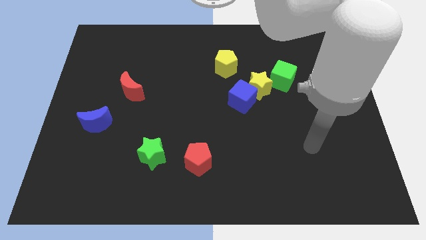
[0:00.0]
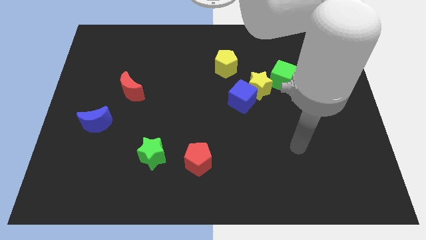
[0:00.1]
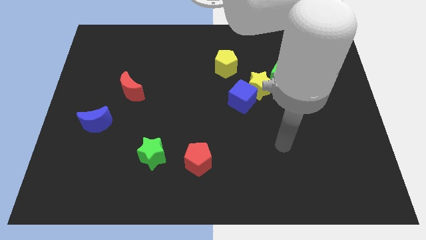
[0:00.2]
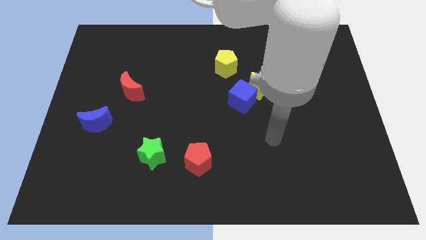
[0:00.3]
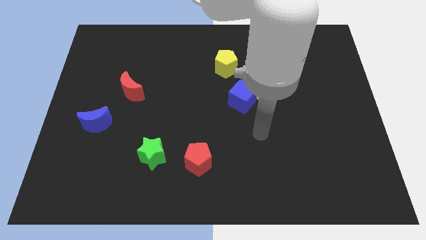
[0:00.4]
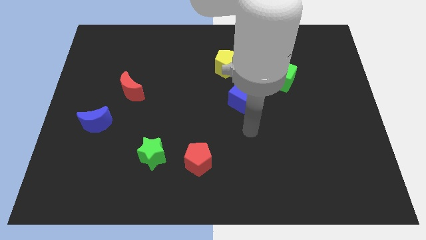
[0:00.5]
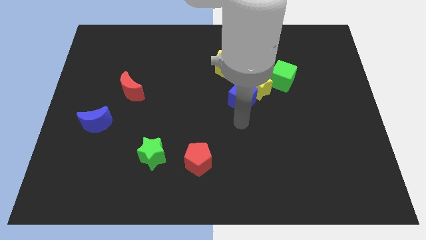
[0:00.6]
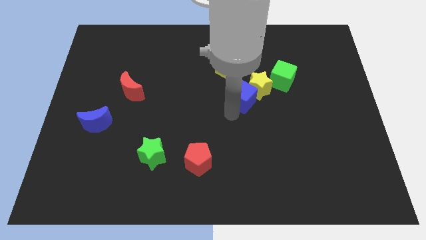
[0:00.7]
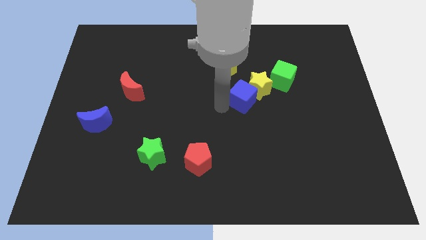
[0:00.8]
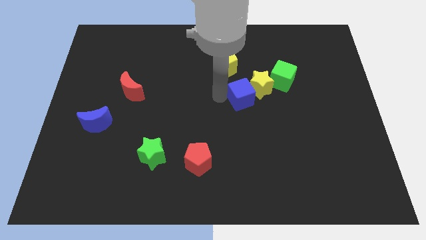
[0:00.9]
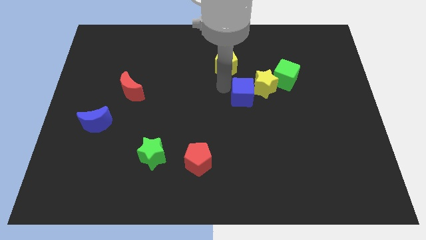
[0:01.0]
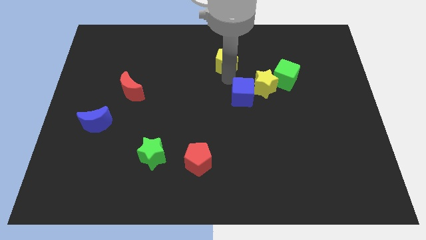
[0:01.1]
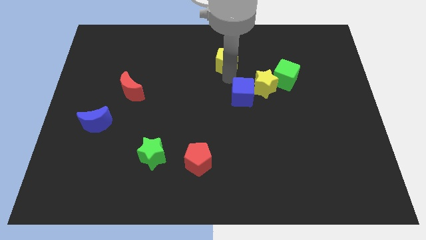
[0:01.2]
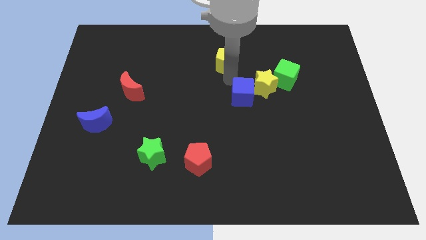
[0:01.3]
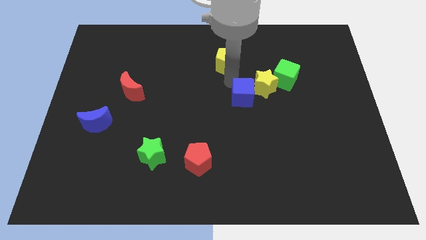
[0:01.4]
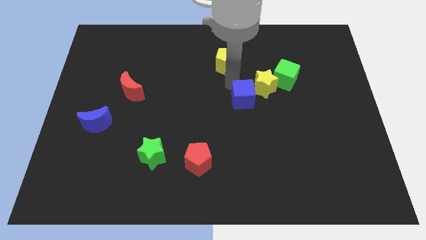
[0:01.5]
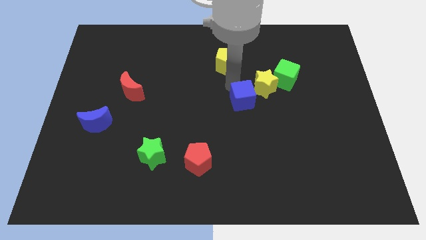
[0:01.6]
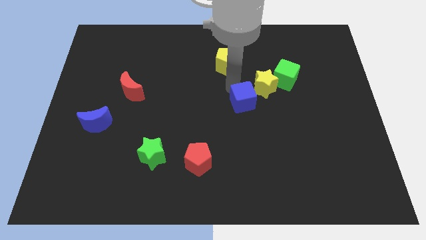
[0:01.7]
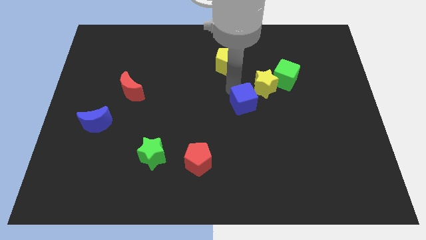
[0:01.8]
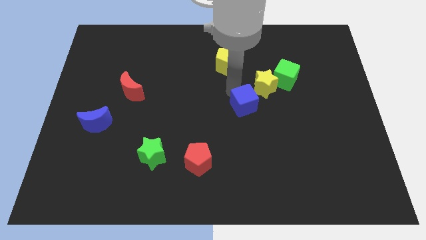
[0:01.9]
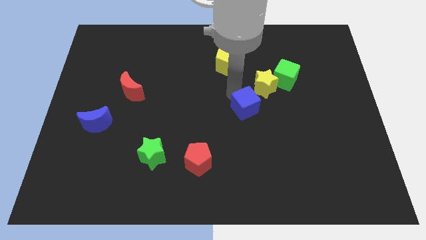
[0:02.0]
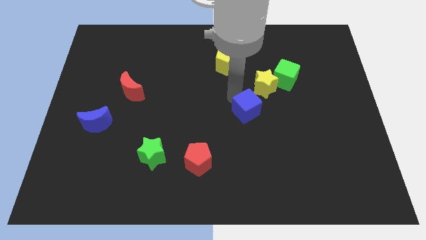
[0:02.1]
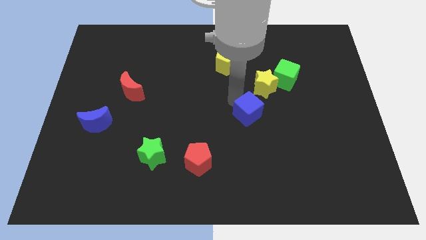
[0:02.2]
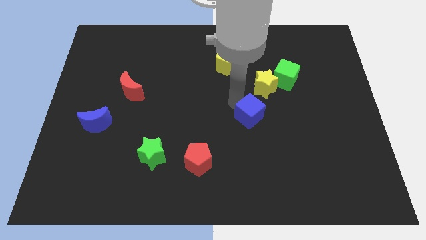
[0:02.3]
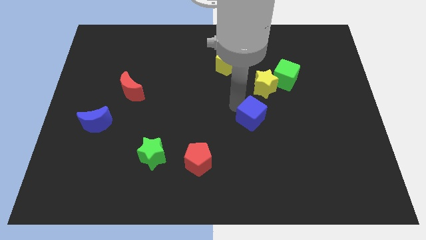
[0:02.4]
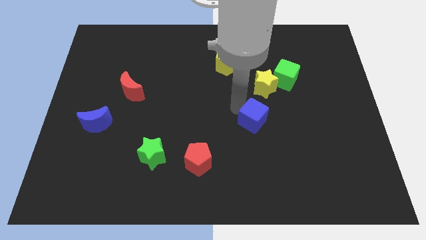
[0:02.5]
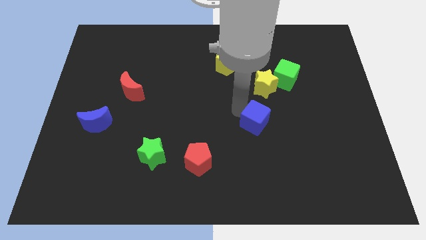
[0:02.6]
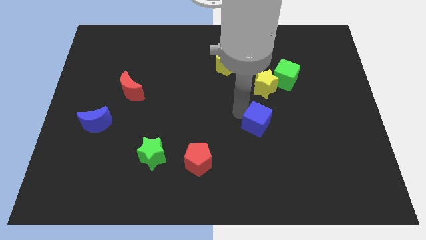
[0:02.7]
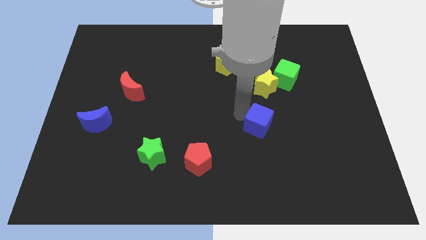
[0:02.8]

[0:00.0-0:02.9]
move the blue cube down and right diagonally a little bit

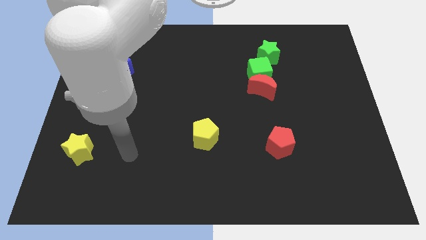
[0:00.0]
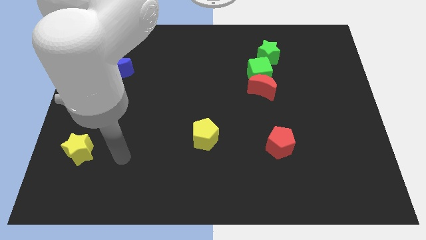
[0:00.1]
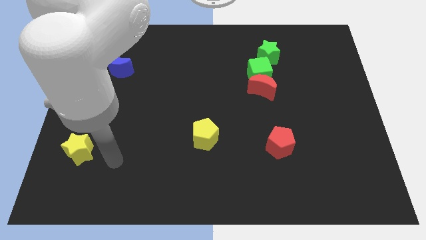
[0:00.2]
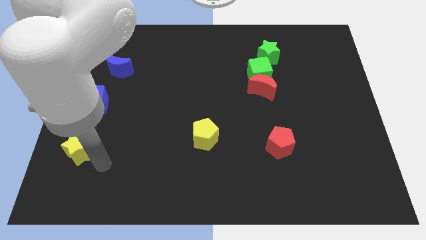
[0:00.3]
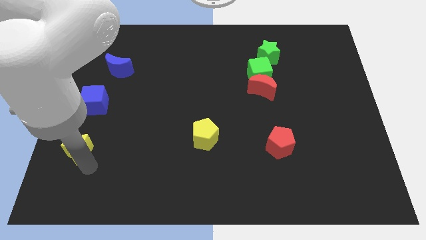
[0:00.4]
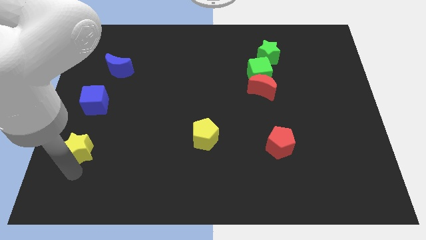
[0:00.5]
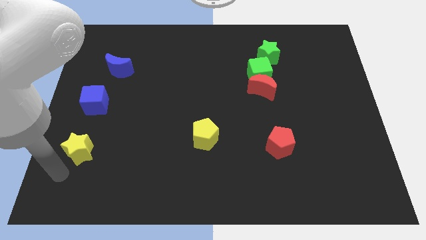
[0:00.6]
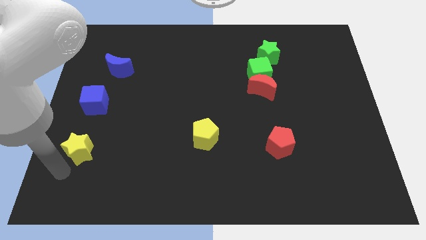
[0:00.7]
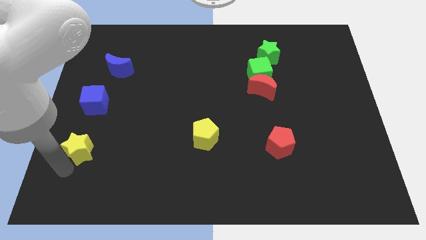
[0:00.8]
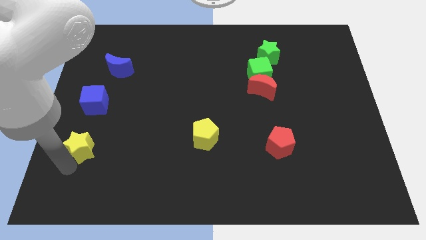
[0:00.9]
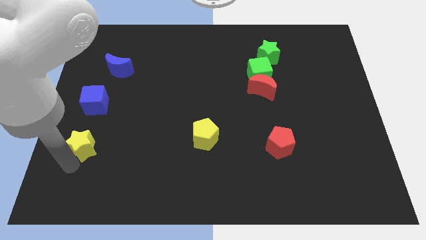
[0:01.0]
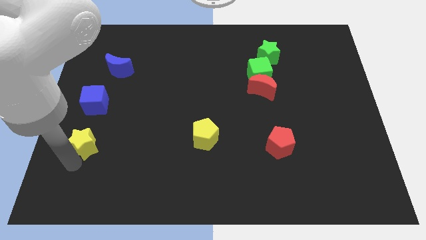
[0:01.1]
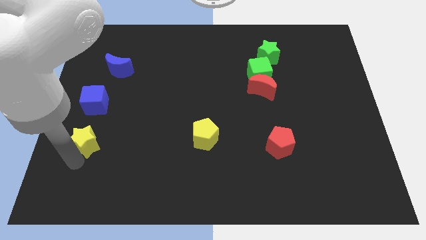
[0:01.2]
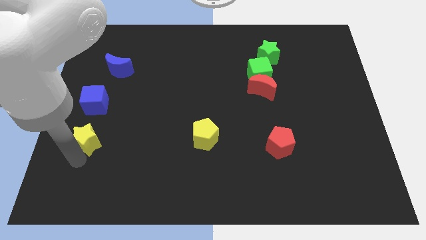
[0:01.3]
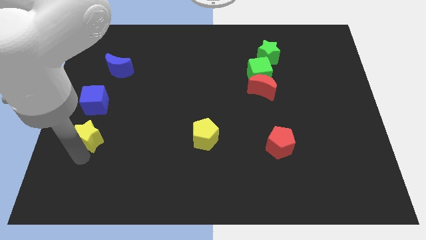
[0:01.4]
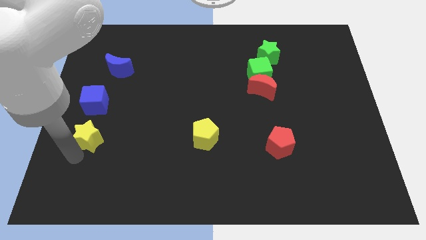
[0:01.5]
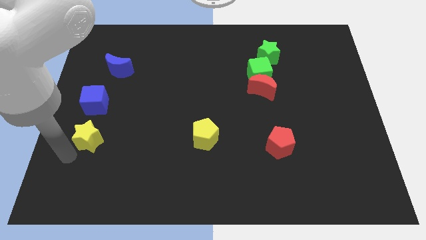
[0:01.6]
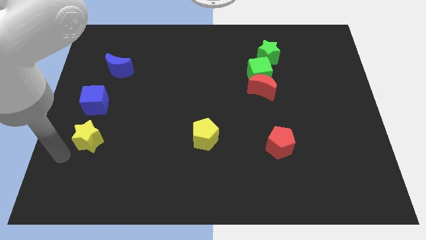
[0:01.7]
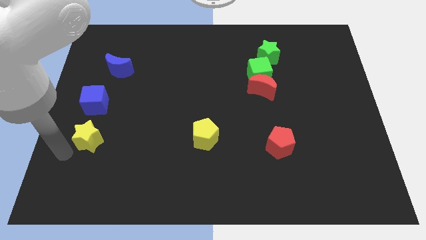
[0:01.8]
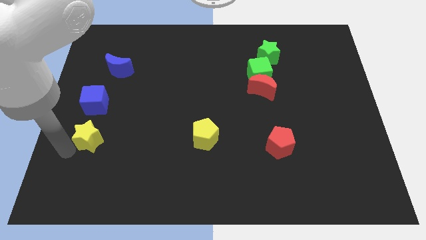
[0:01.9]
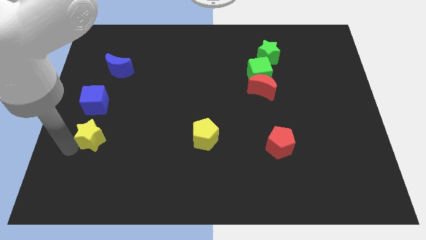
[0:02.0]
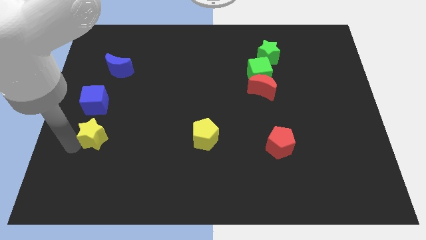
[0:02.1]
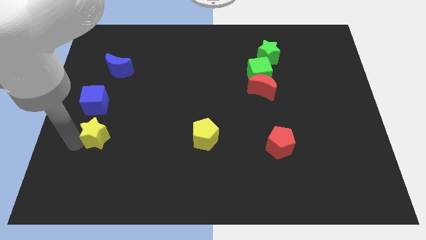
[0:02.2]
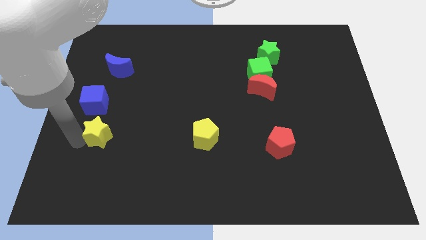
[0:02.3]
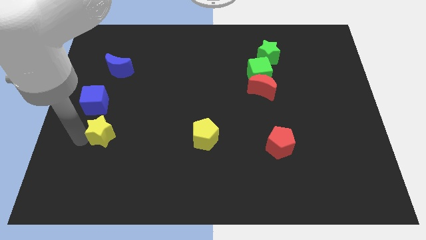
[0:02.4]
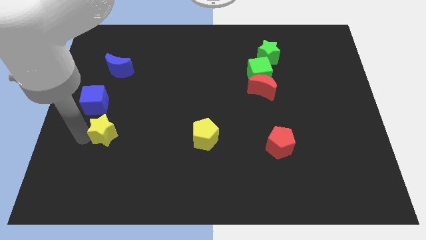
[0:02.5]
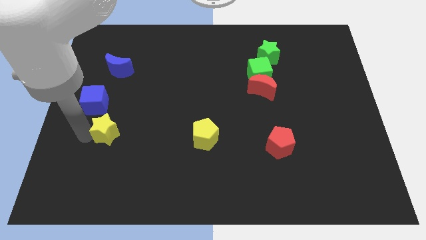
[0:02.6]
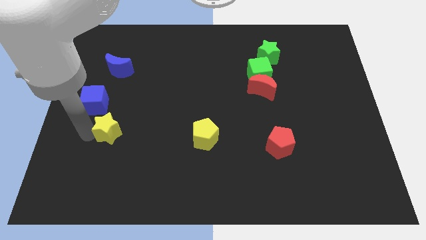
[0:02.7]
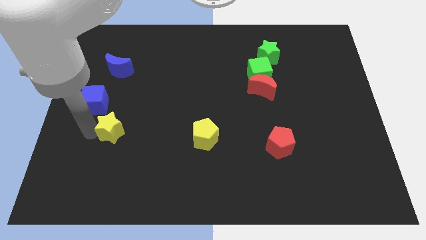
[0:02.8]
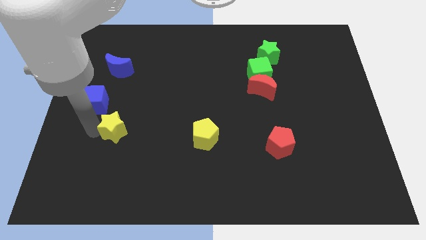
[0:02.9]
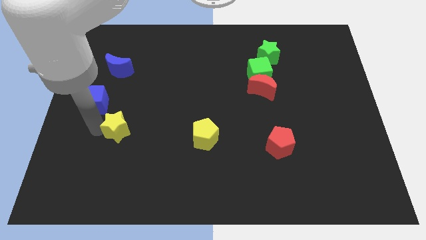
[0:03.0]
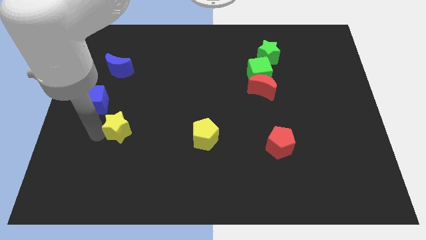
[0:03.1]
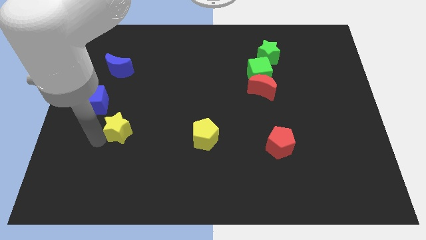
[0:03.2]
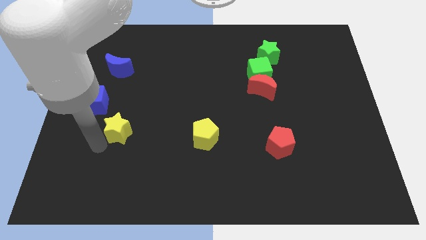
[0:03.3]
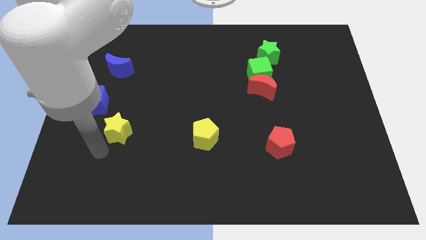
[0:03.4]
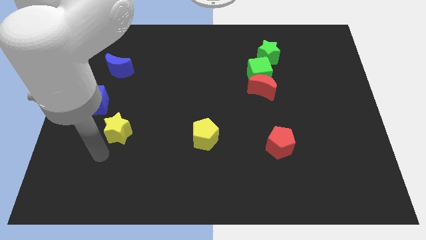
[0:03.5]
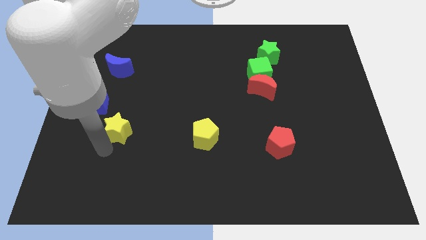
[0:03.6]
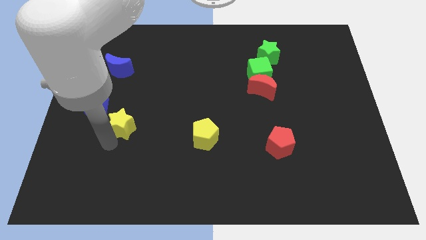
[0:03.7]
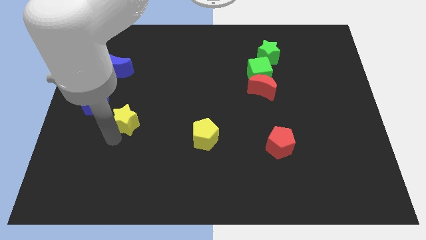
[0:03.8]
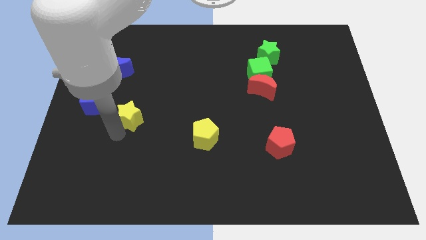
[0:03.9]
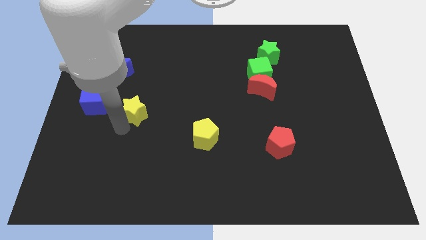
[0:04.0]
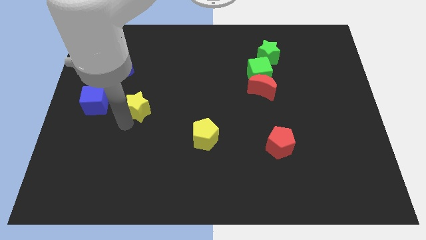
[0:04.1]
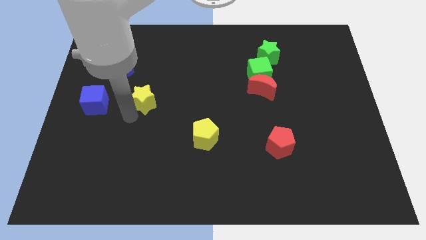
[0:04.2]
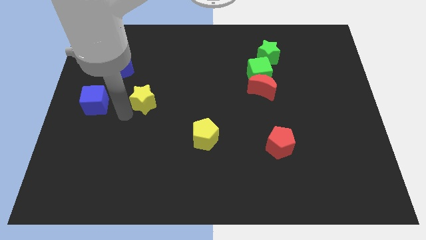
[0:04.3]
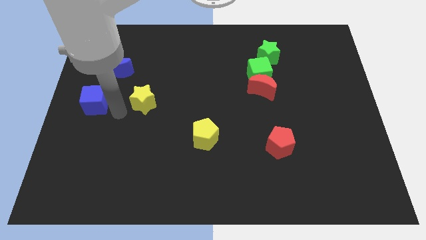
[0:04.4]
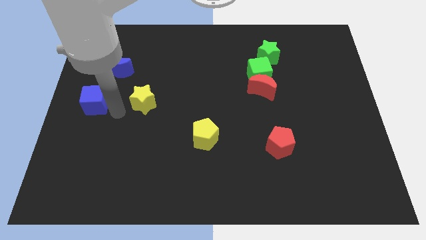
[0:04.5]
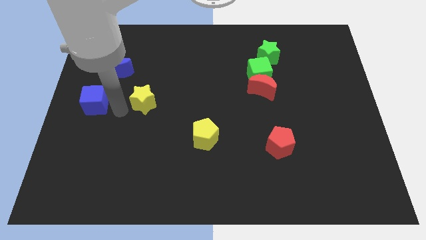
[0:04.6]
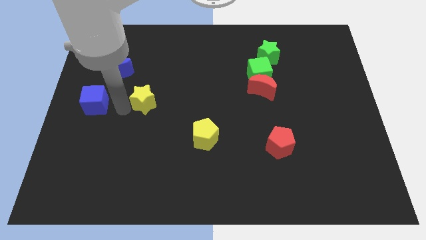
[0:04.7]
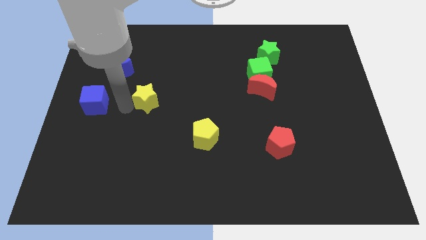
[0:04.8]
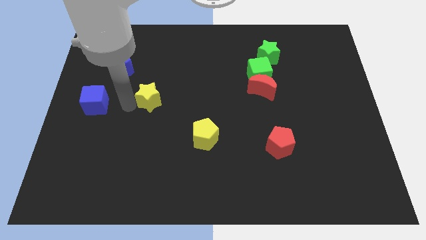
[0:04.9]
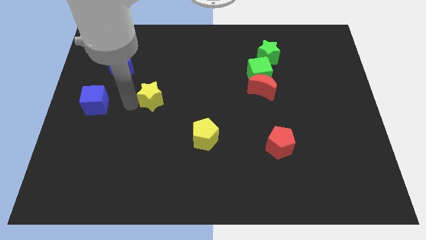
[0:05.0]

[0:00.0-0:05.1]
slide the yellow star up and to the right diagonally

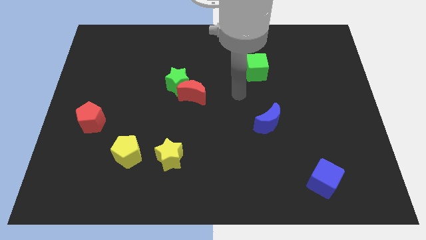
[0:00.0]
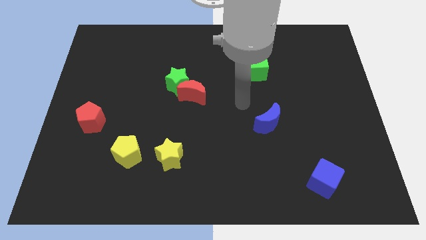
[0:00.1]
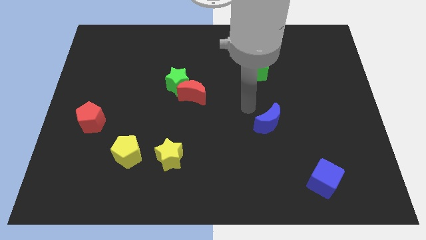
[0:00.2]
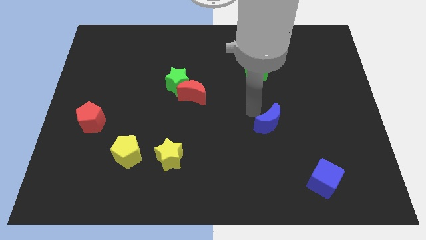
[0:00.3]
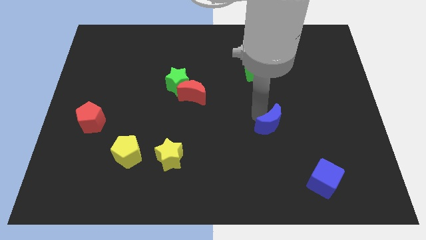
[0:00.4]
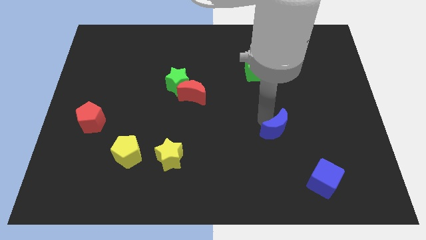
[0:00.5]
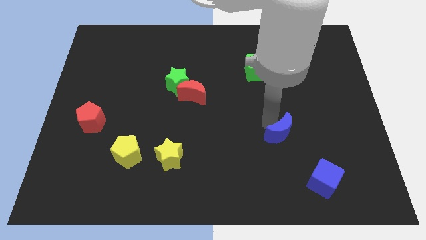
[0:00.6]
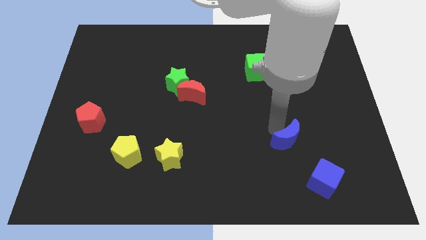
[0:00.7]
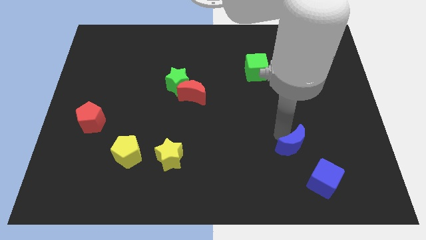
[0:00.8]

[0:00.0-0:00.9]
move the blue moon down and to the right a bit
